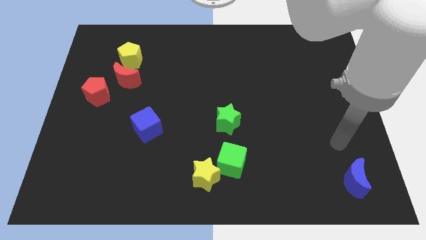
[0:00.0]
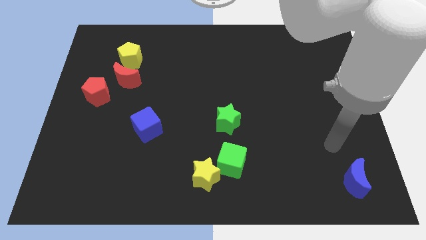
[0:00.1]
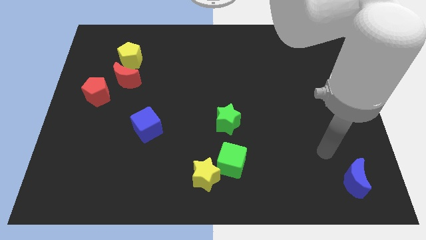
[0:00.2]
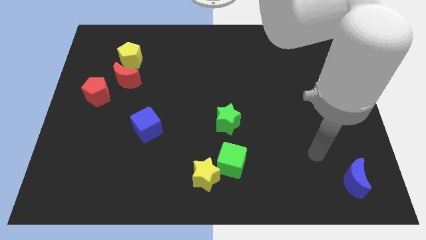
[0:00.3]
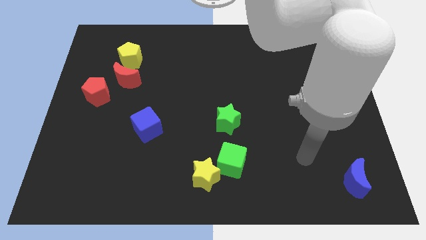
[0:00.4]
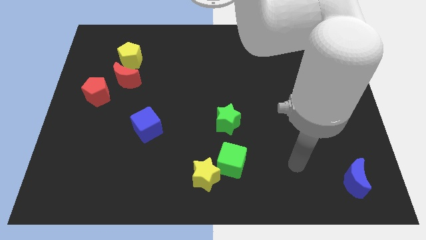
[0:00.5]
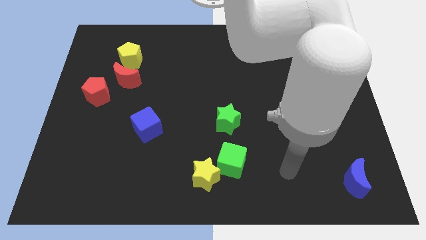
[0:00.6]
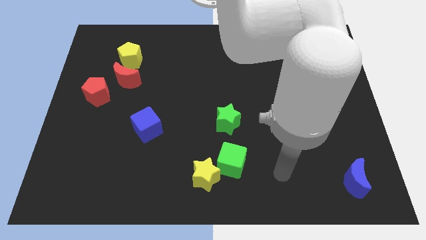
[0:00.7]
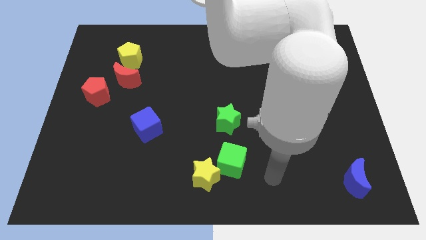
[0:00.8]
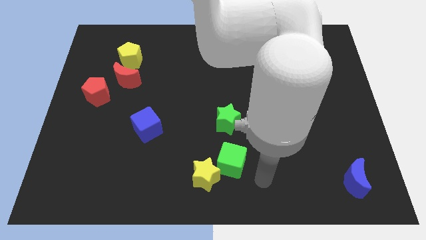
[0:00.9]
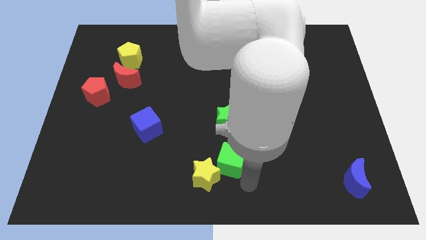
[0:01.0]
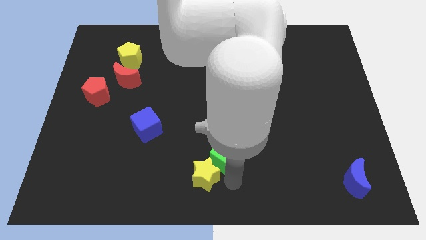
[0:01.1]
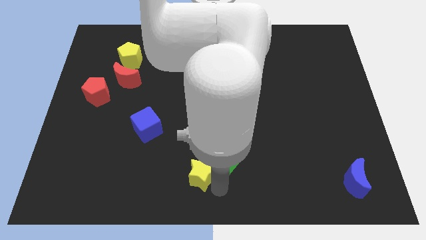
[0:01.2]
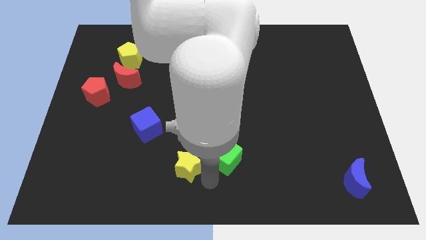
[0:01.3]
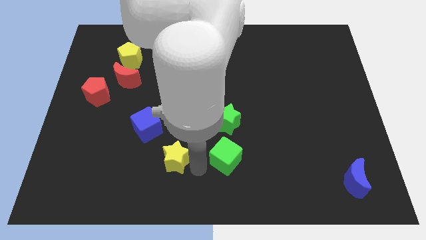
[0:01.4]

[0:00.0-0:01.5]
move the green cube away from the yellow star

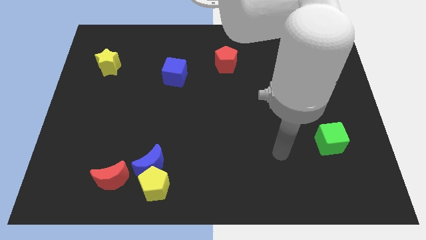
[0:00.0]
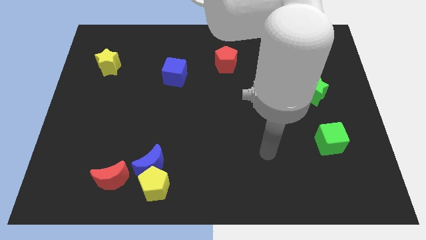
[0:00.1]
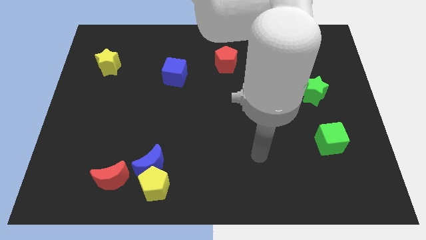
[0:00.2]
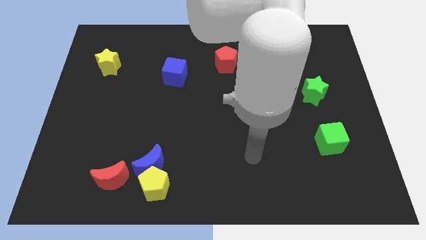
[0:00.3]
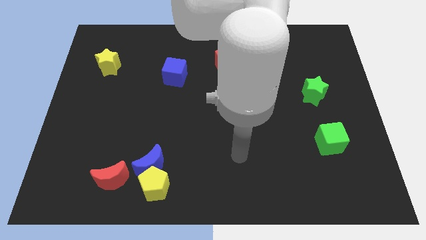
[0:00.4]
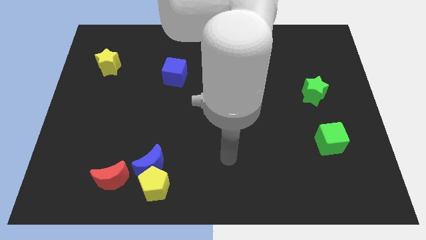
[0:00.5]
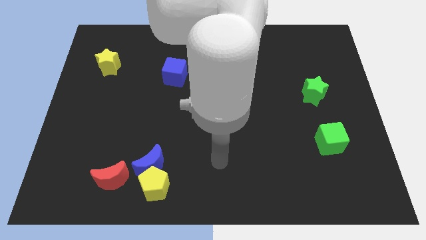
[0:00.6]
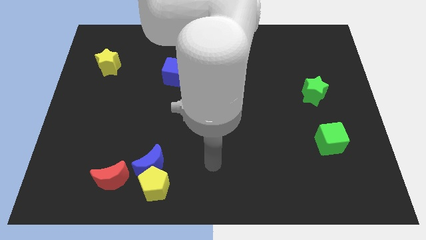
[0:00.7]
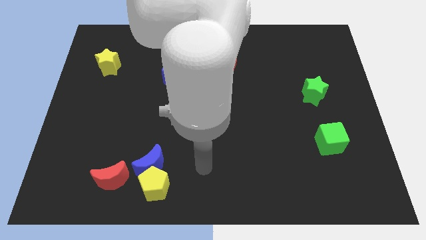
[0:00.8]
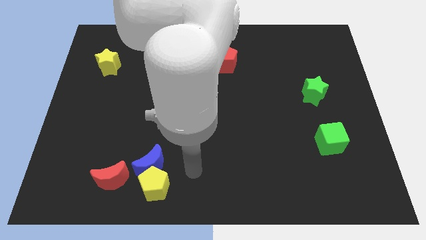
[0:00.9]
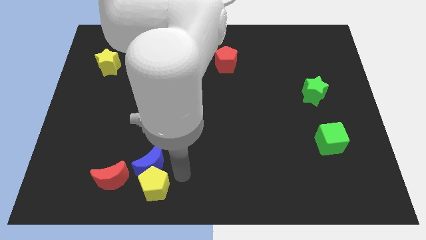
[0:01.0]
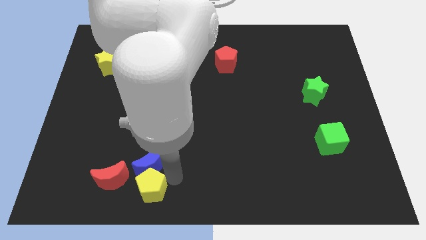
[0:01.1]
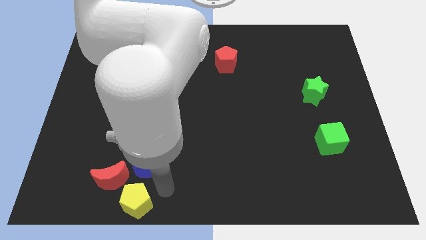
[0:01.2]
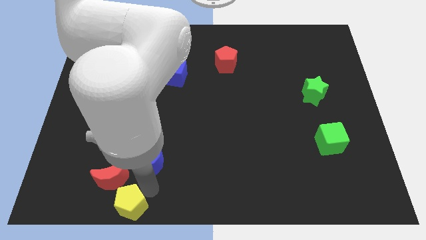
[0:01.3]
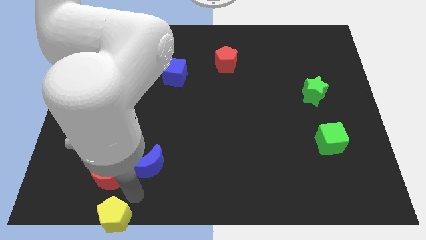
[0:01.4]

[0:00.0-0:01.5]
separate the blue moon from the yellow pentagon and red moon

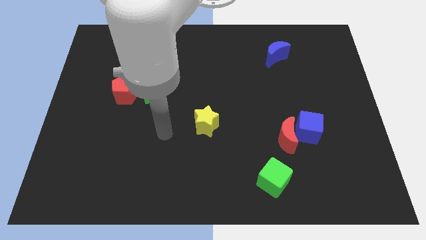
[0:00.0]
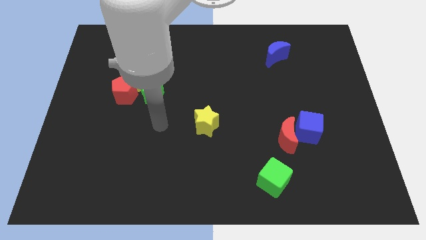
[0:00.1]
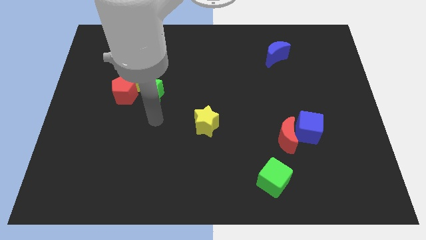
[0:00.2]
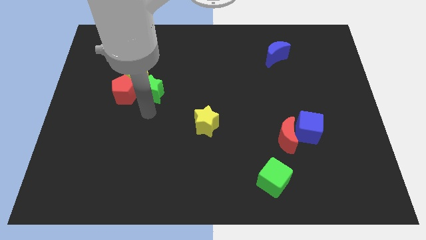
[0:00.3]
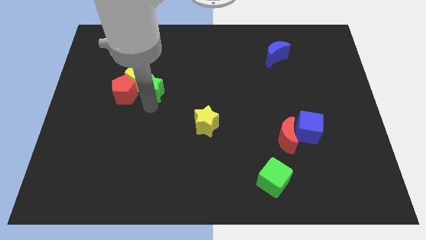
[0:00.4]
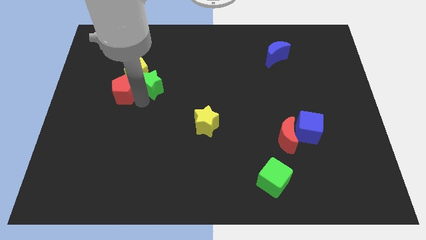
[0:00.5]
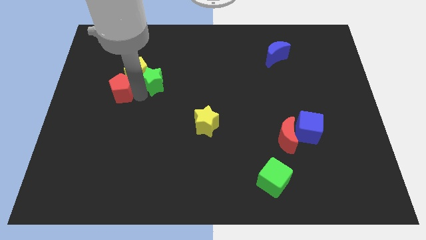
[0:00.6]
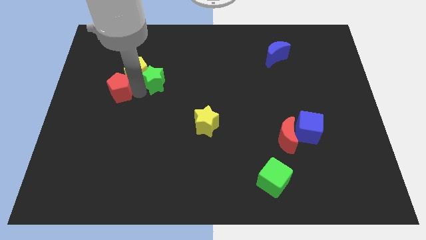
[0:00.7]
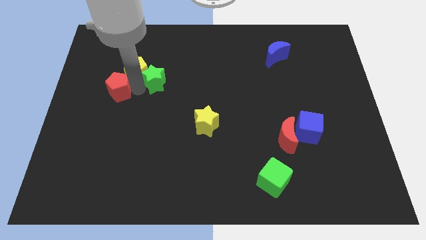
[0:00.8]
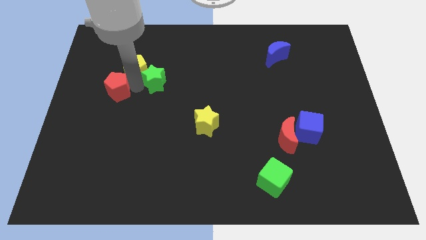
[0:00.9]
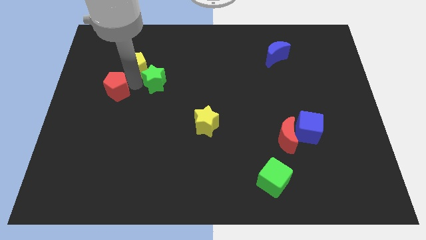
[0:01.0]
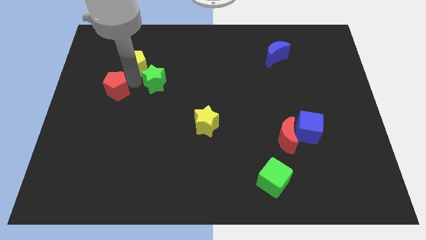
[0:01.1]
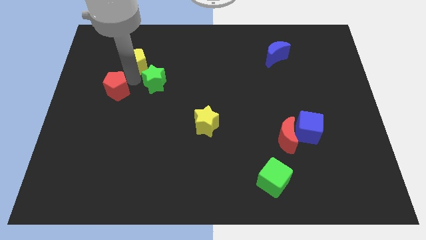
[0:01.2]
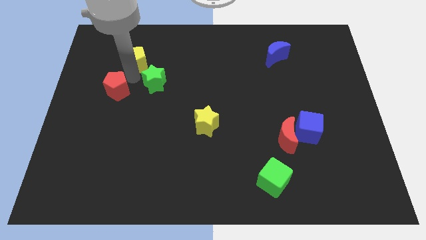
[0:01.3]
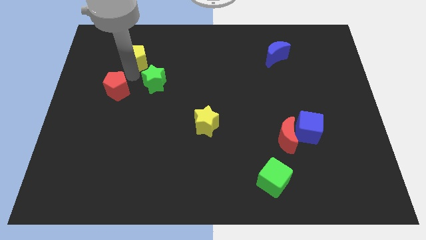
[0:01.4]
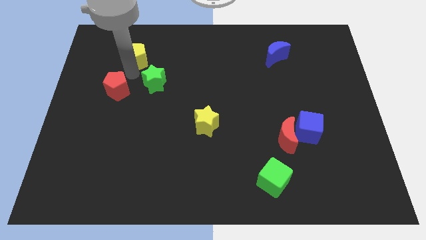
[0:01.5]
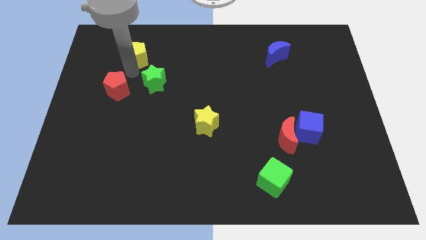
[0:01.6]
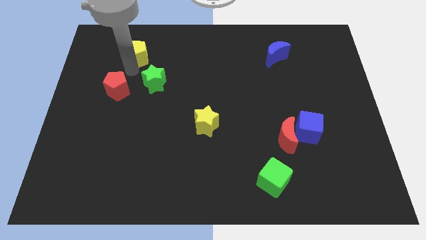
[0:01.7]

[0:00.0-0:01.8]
separate the yellow pentagon from the red pentagon and green star

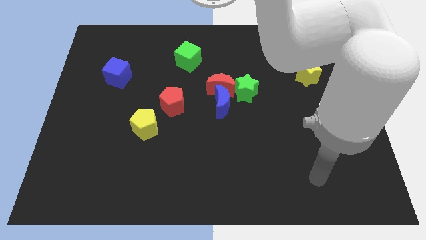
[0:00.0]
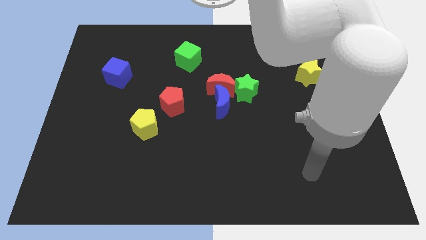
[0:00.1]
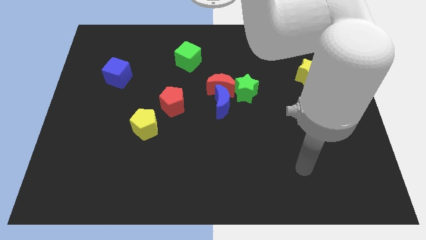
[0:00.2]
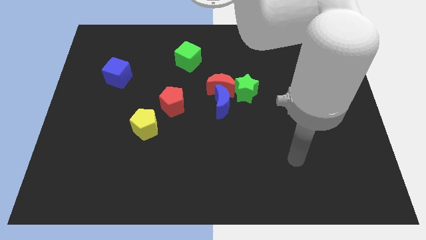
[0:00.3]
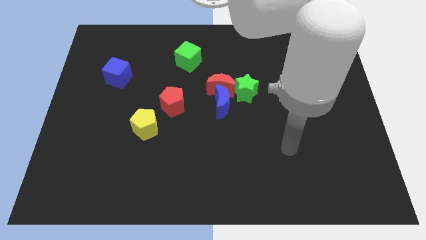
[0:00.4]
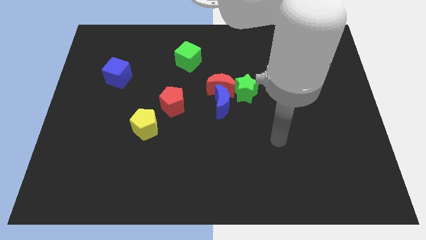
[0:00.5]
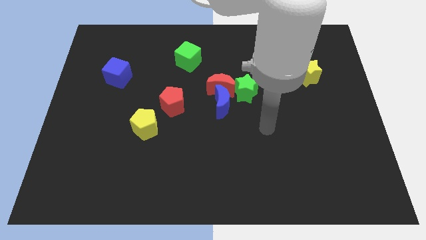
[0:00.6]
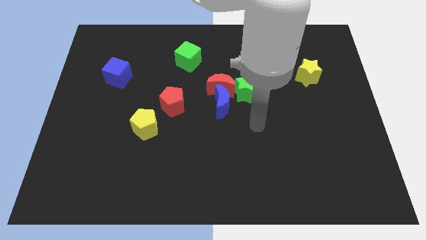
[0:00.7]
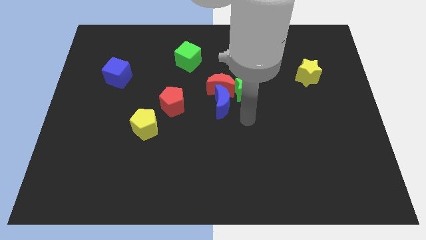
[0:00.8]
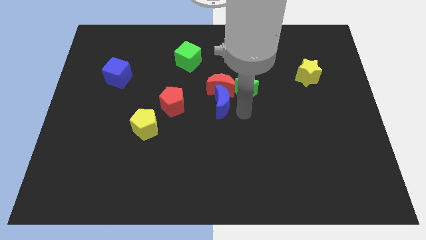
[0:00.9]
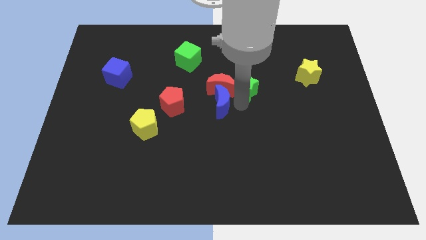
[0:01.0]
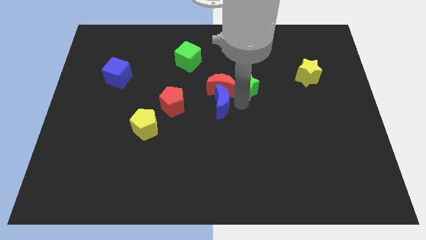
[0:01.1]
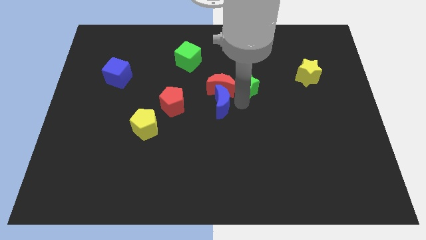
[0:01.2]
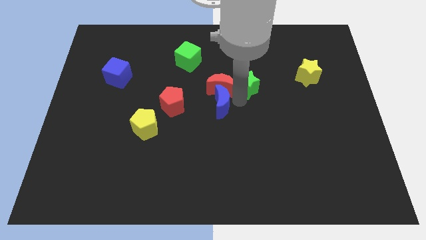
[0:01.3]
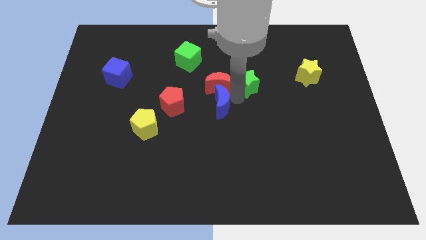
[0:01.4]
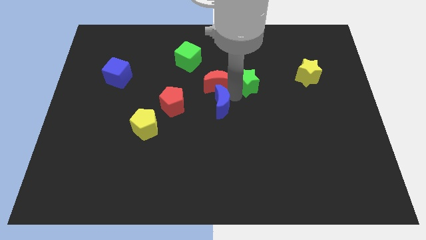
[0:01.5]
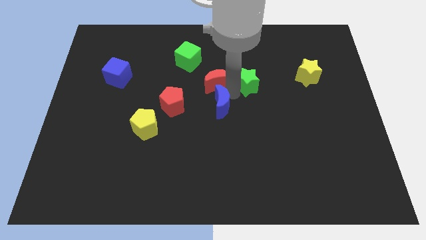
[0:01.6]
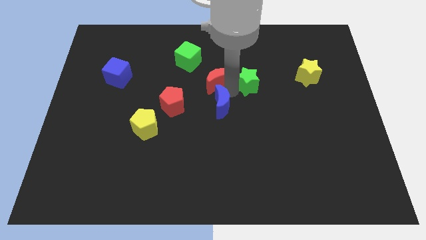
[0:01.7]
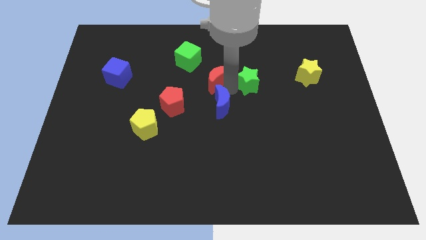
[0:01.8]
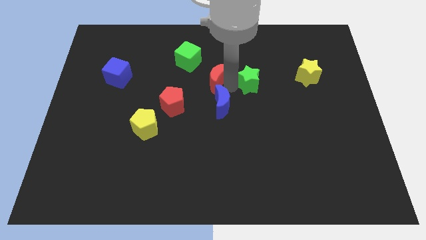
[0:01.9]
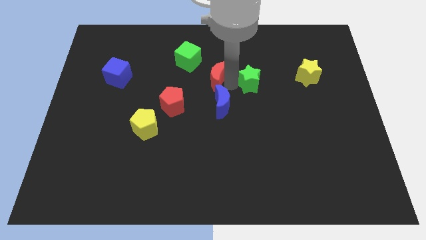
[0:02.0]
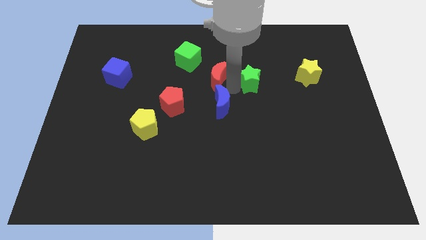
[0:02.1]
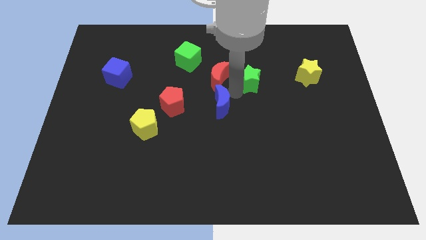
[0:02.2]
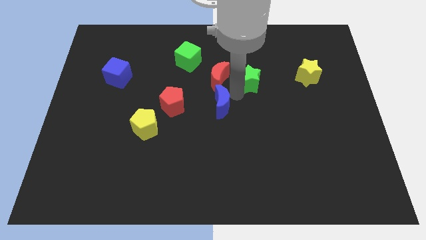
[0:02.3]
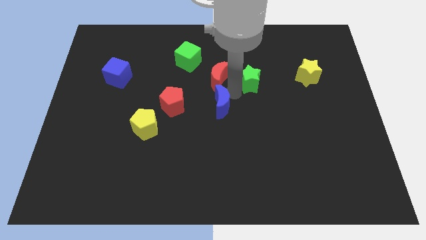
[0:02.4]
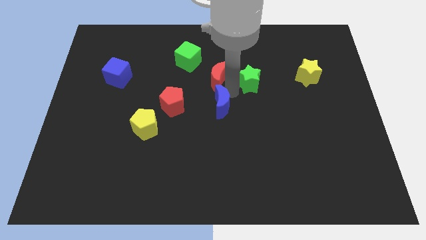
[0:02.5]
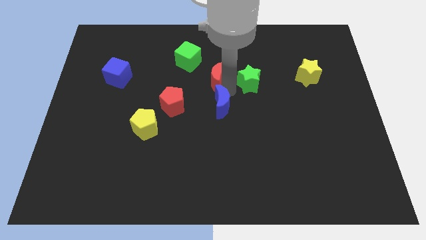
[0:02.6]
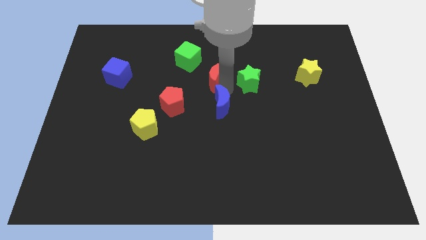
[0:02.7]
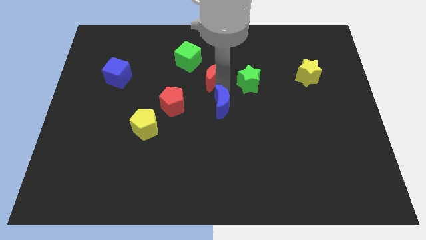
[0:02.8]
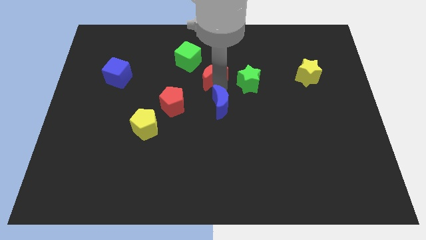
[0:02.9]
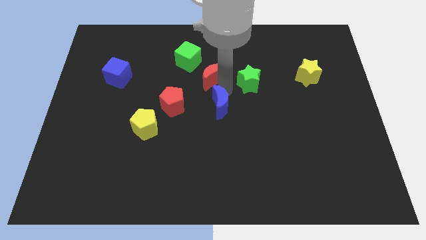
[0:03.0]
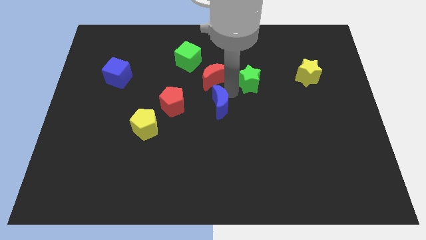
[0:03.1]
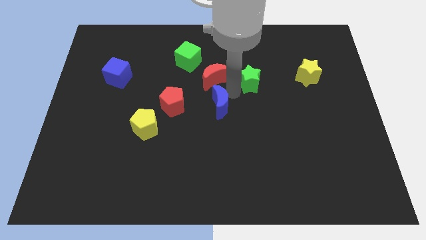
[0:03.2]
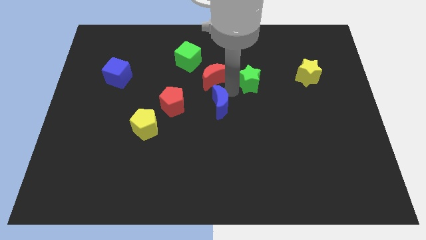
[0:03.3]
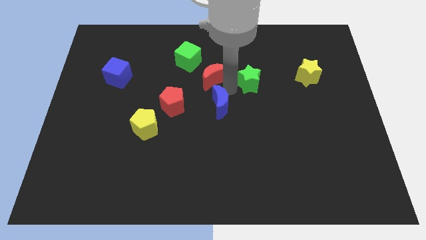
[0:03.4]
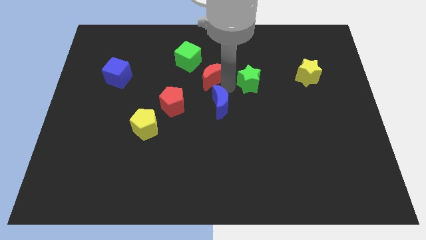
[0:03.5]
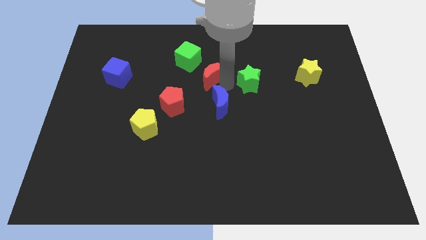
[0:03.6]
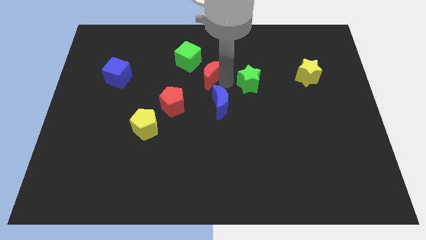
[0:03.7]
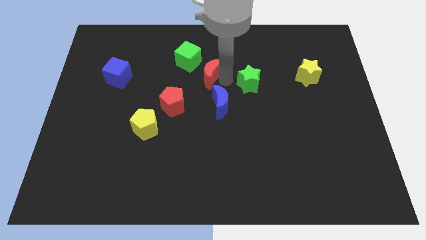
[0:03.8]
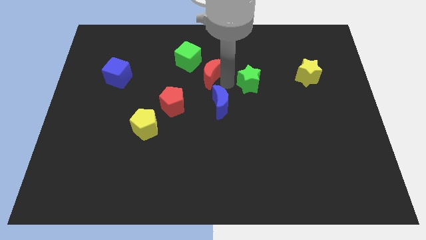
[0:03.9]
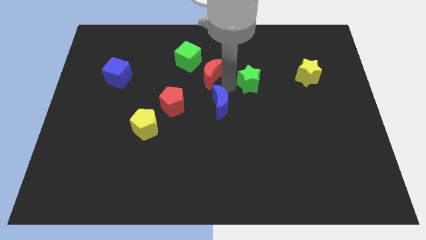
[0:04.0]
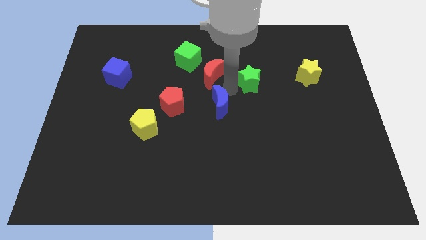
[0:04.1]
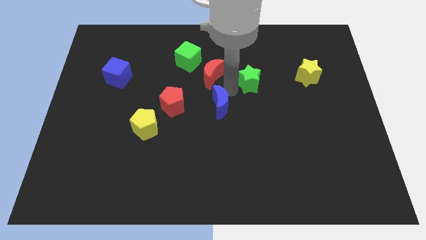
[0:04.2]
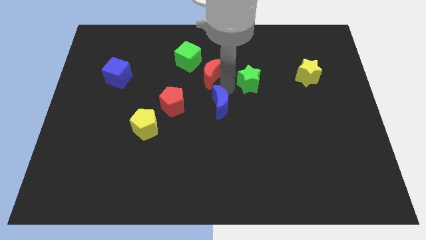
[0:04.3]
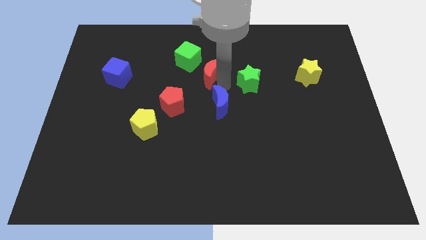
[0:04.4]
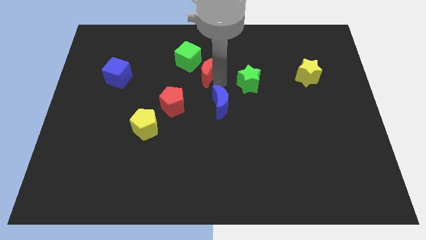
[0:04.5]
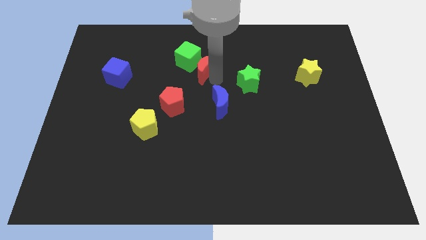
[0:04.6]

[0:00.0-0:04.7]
move the red moon away from the blue moon and green star
